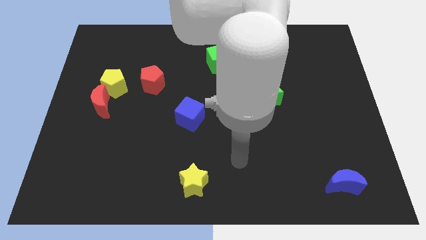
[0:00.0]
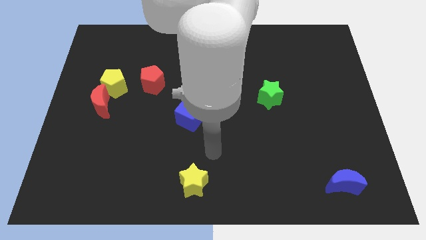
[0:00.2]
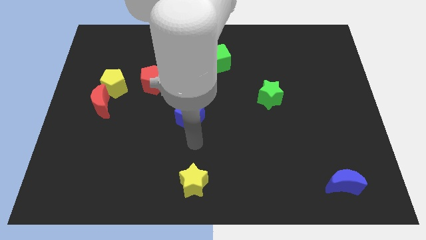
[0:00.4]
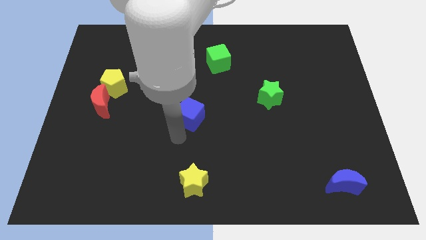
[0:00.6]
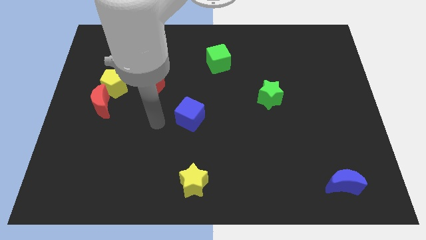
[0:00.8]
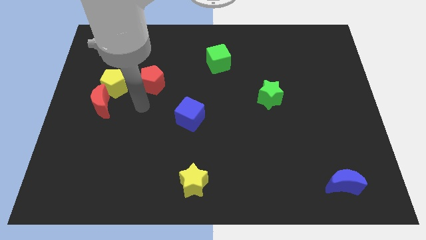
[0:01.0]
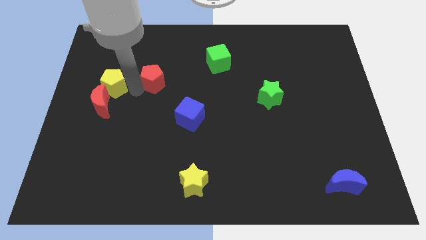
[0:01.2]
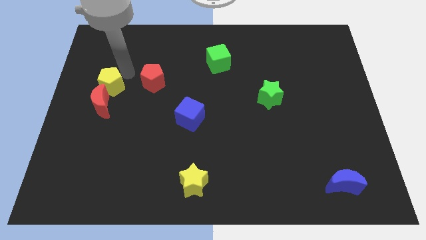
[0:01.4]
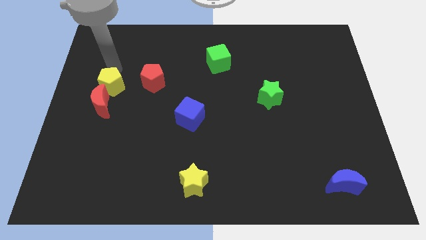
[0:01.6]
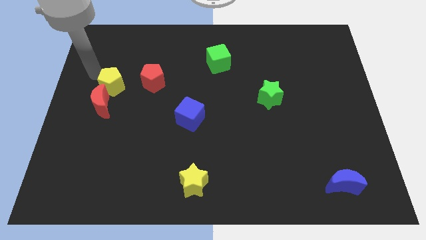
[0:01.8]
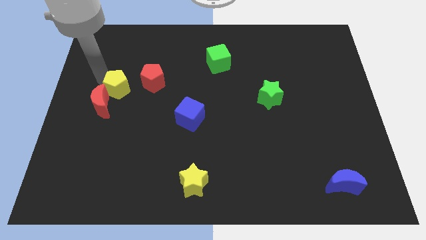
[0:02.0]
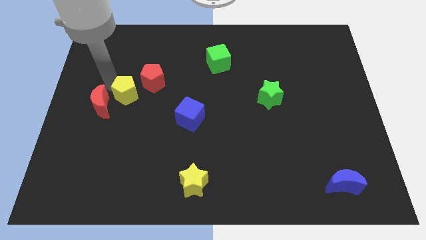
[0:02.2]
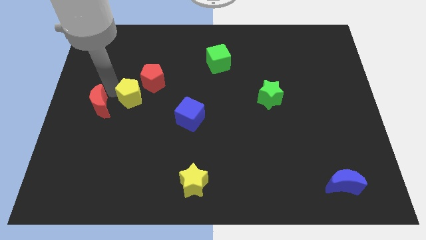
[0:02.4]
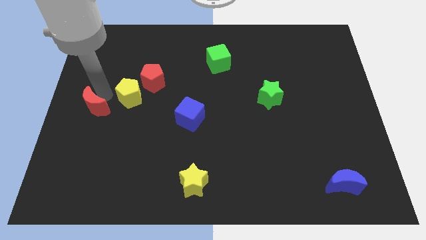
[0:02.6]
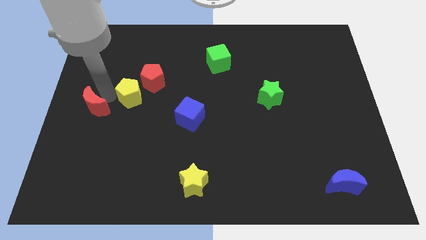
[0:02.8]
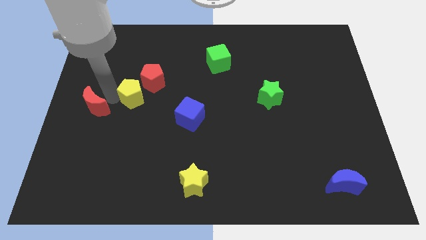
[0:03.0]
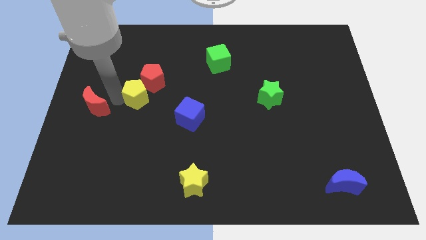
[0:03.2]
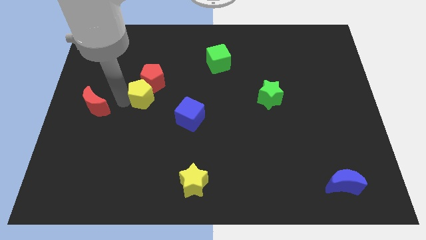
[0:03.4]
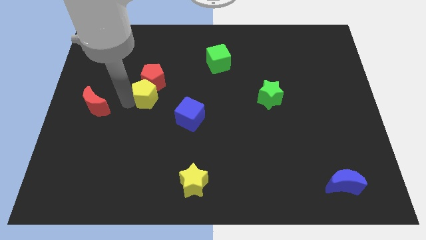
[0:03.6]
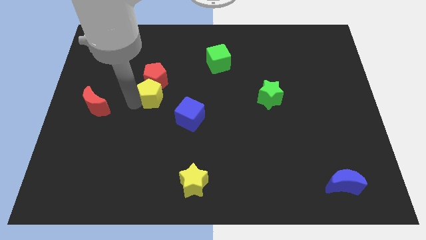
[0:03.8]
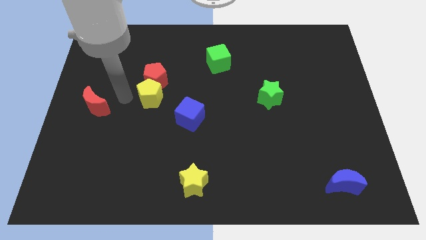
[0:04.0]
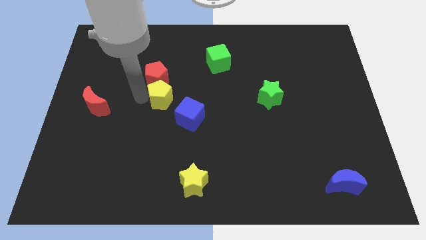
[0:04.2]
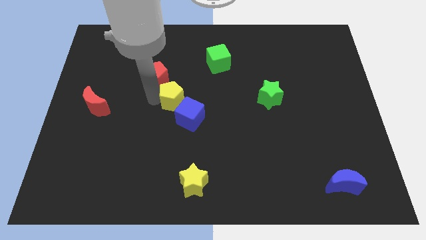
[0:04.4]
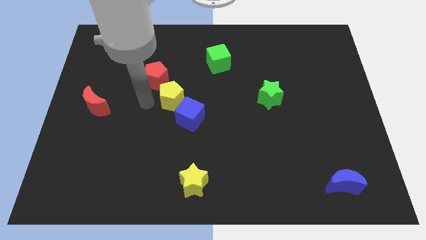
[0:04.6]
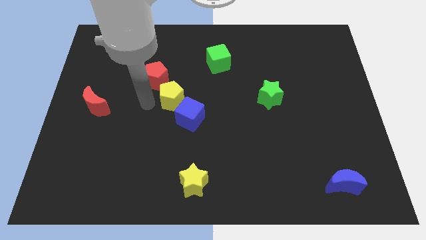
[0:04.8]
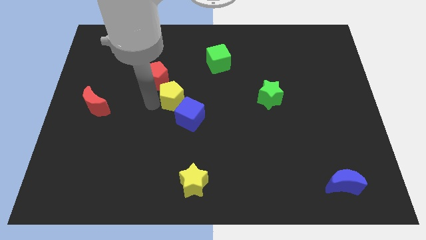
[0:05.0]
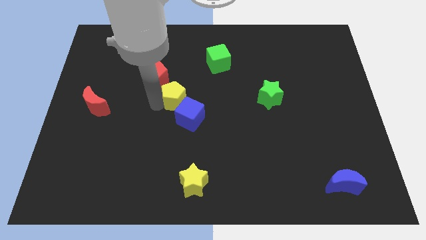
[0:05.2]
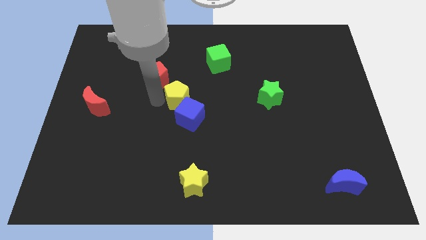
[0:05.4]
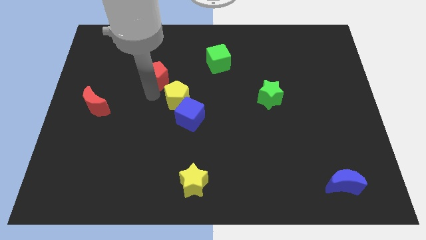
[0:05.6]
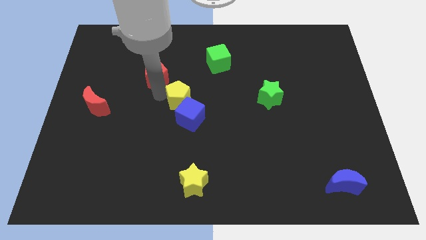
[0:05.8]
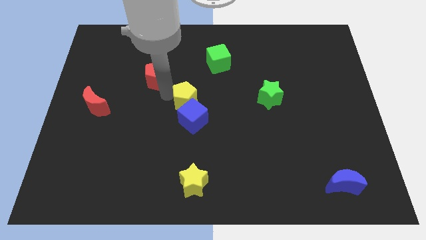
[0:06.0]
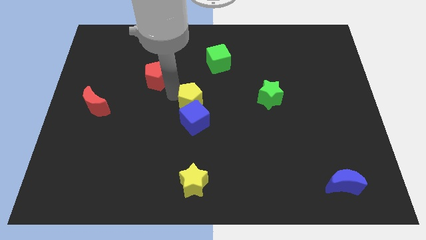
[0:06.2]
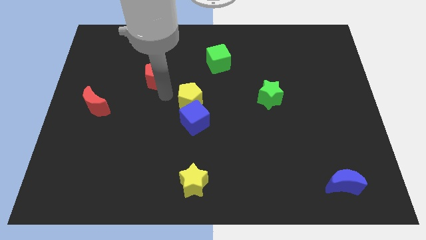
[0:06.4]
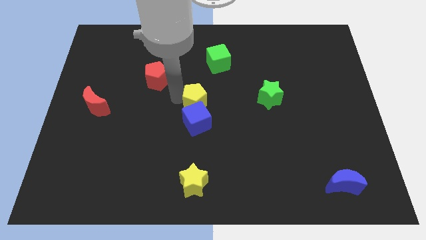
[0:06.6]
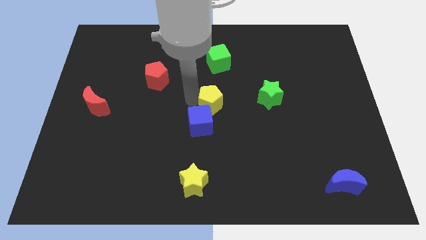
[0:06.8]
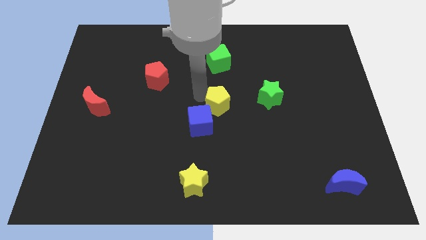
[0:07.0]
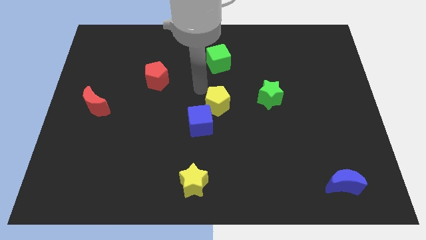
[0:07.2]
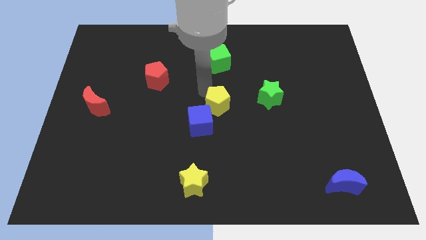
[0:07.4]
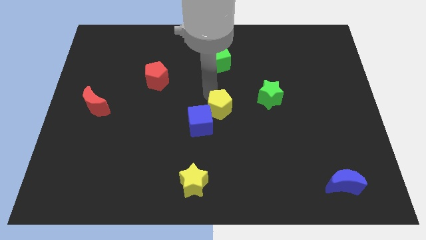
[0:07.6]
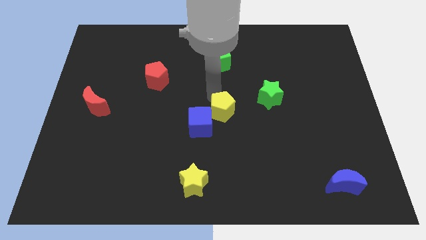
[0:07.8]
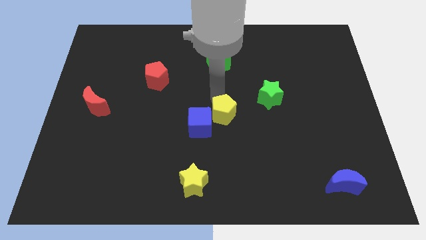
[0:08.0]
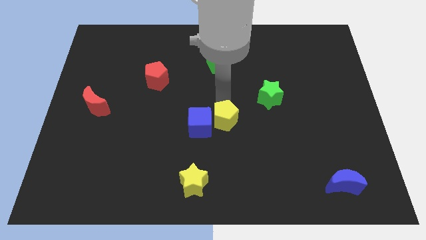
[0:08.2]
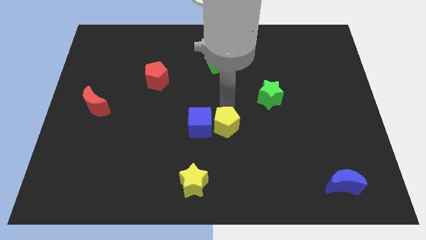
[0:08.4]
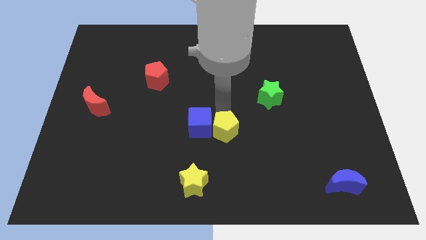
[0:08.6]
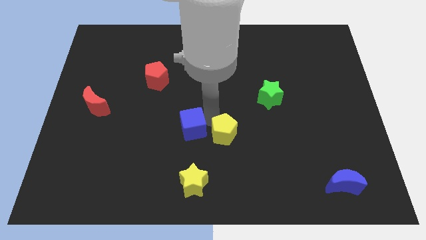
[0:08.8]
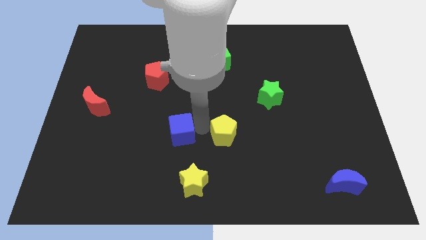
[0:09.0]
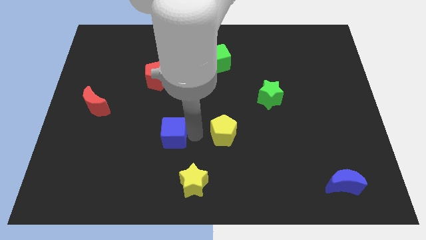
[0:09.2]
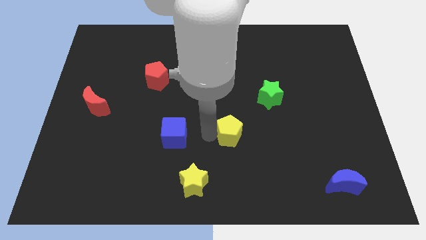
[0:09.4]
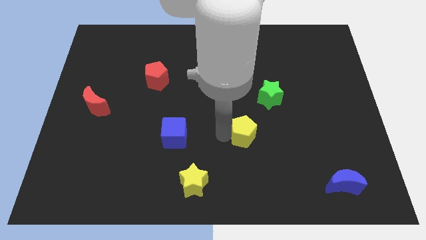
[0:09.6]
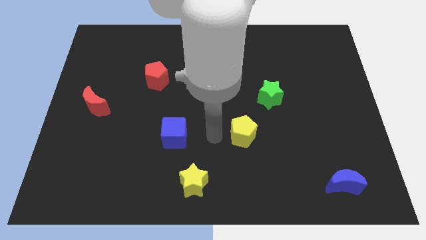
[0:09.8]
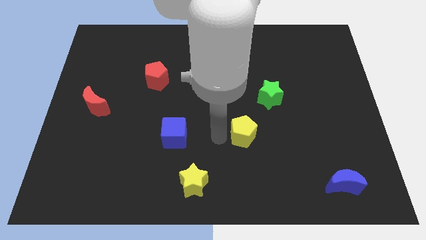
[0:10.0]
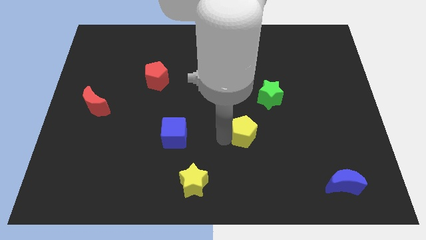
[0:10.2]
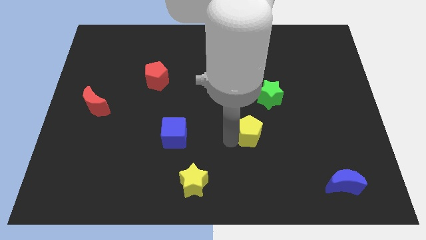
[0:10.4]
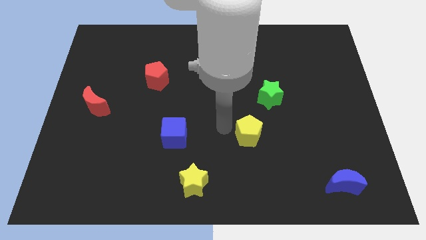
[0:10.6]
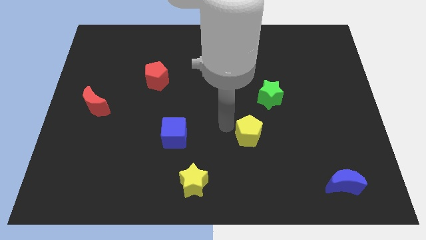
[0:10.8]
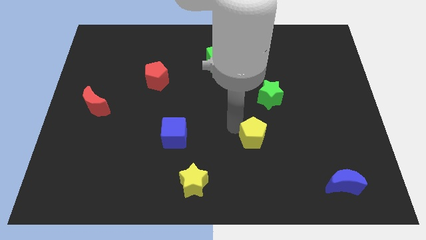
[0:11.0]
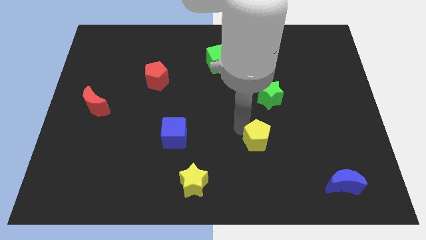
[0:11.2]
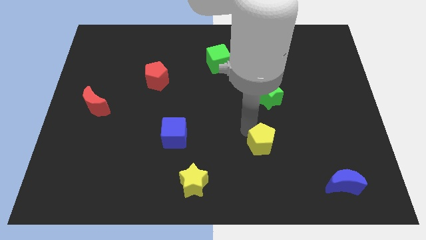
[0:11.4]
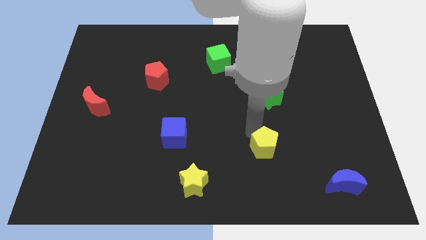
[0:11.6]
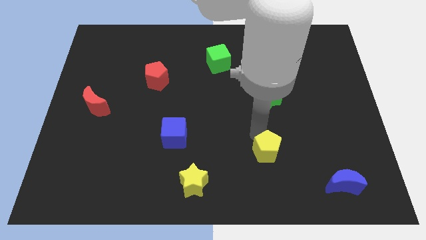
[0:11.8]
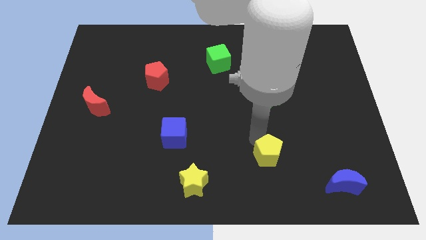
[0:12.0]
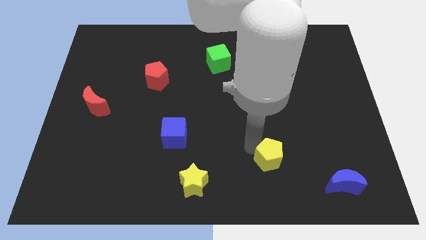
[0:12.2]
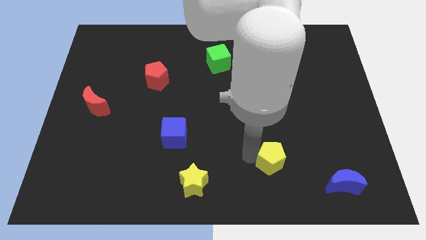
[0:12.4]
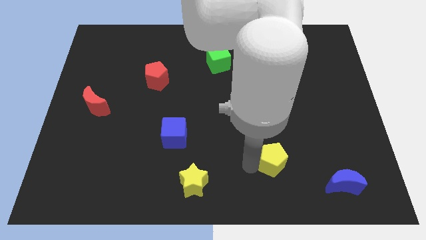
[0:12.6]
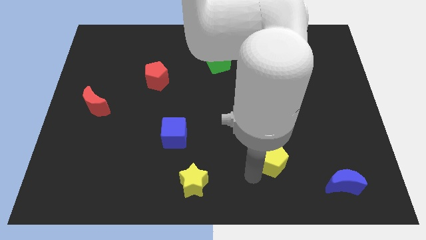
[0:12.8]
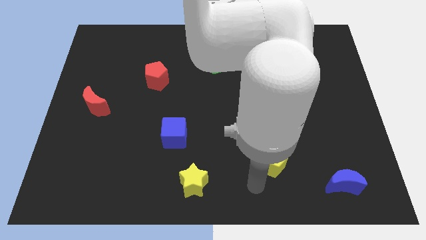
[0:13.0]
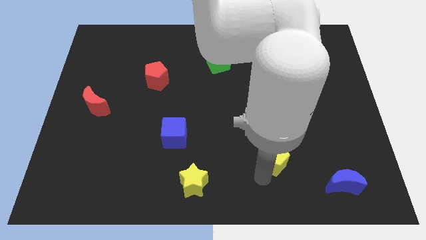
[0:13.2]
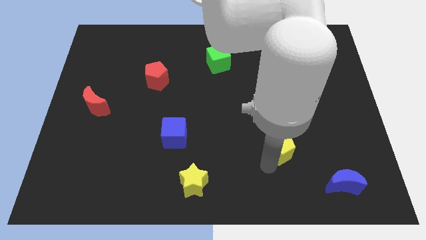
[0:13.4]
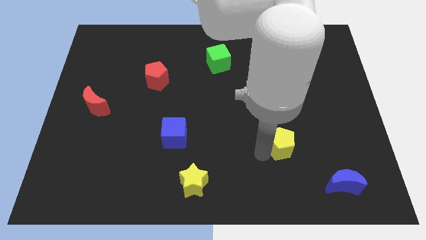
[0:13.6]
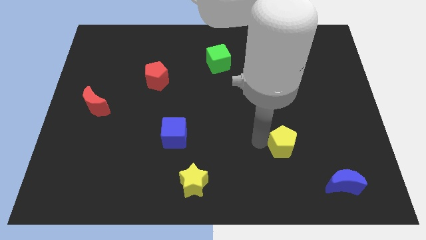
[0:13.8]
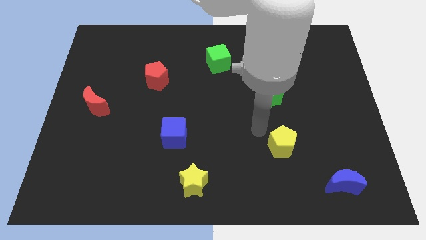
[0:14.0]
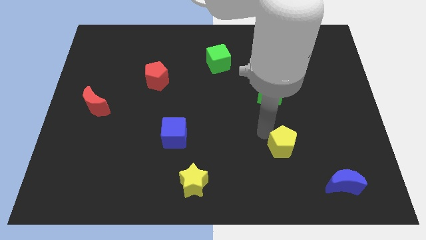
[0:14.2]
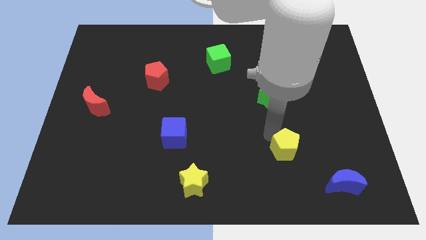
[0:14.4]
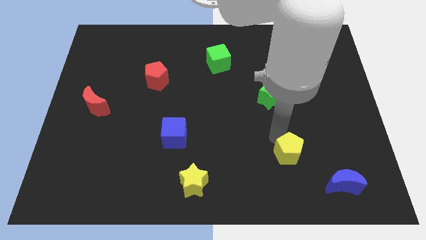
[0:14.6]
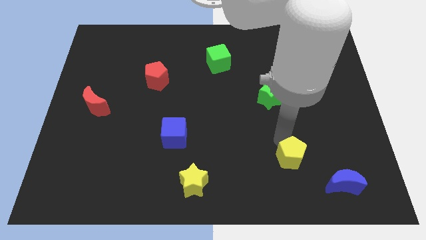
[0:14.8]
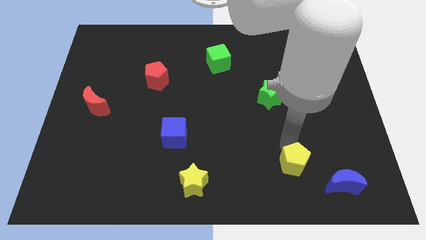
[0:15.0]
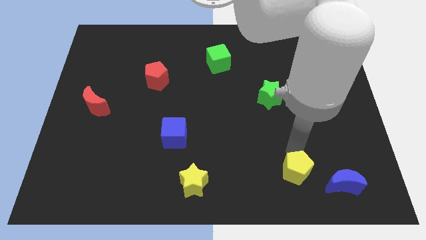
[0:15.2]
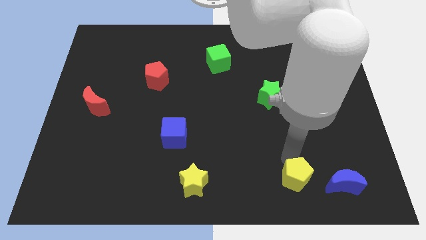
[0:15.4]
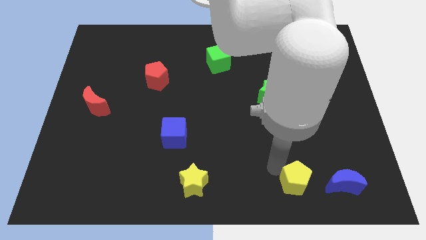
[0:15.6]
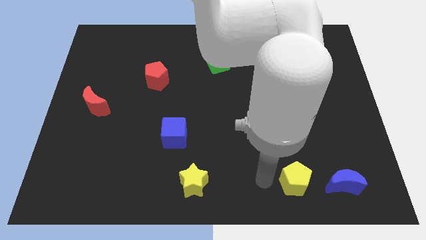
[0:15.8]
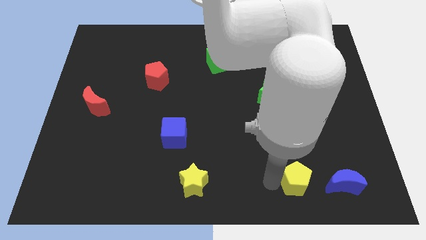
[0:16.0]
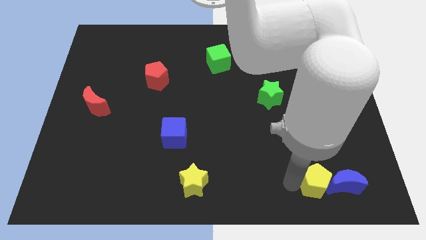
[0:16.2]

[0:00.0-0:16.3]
slide the yellow pentagon towards the blue moon
